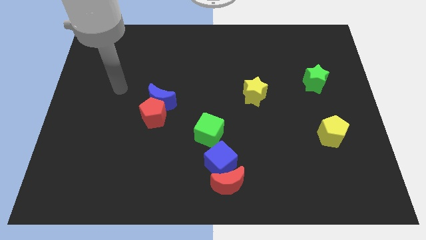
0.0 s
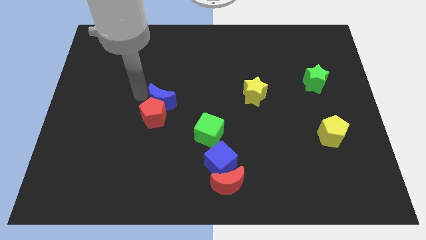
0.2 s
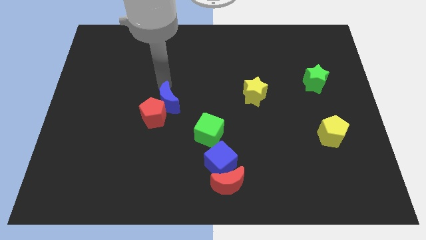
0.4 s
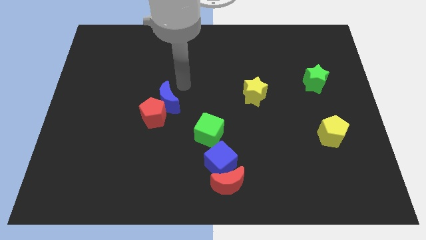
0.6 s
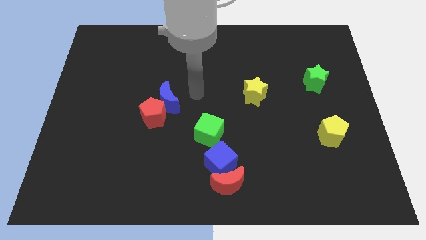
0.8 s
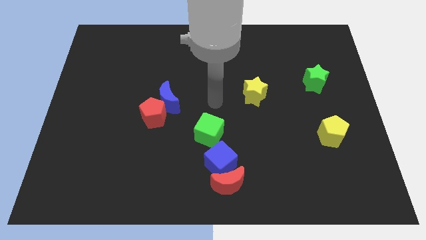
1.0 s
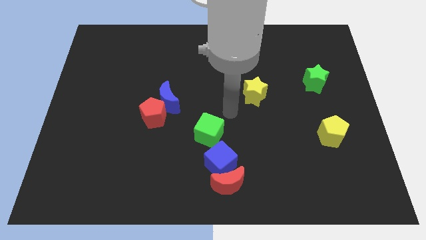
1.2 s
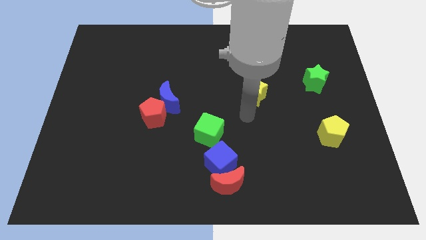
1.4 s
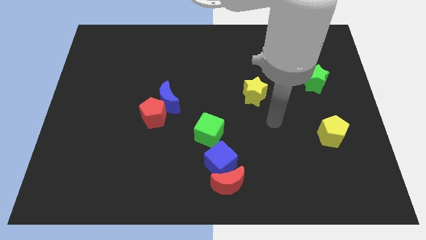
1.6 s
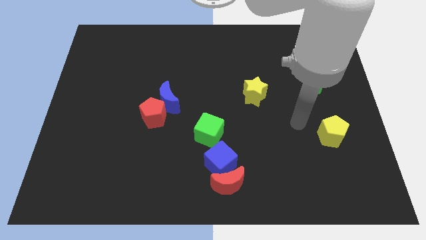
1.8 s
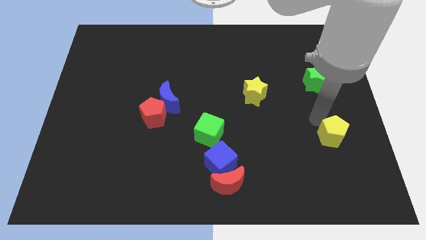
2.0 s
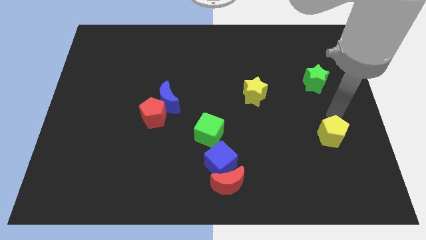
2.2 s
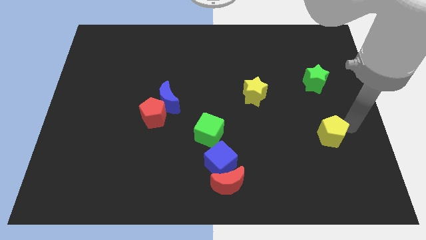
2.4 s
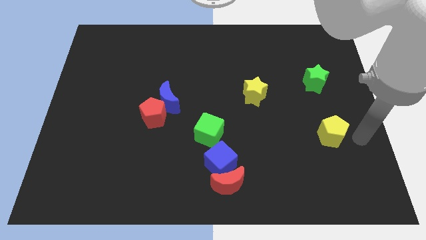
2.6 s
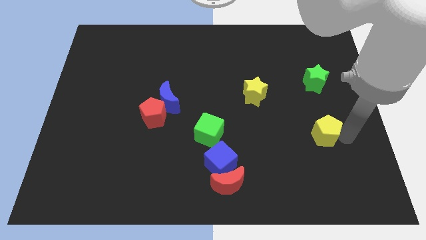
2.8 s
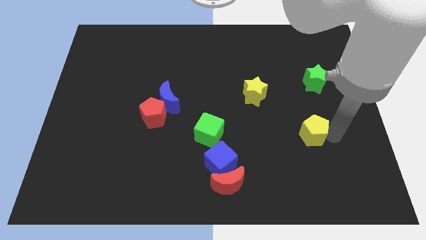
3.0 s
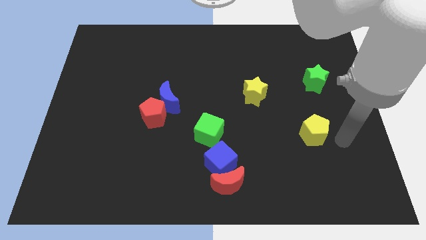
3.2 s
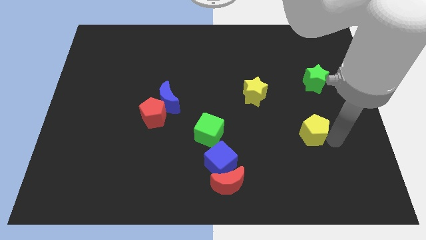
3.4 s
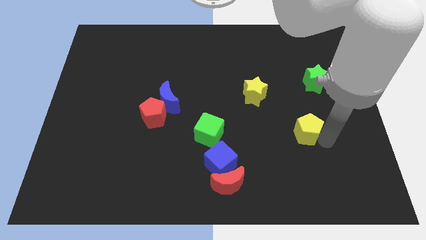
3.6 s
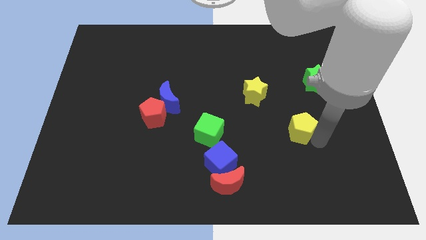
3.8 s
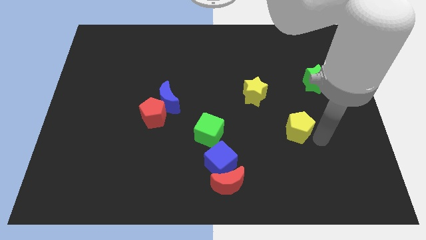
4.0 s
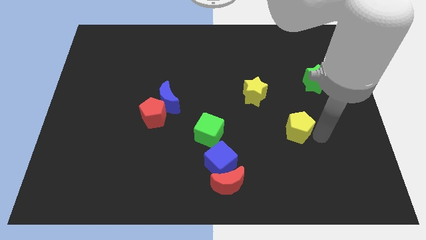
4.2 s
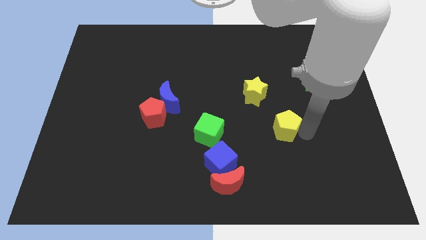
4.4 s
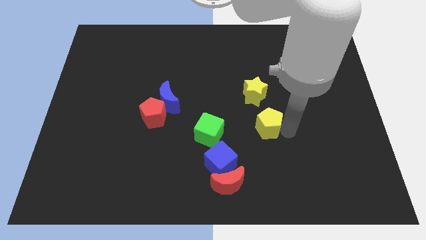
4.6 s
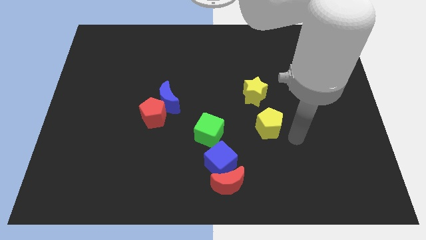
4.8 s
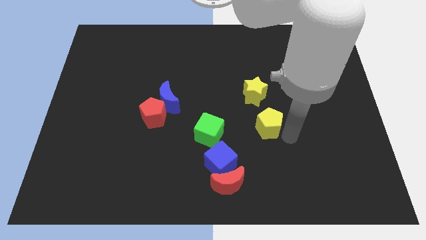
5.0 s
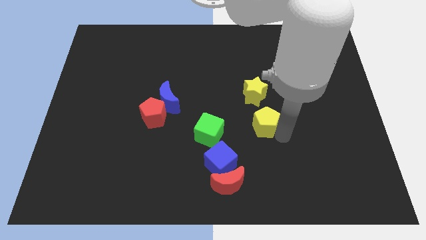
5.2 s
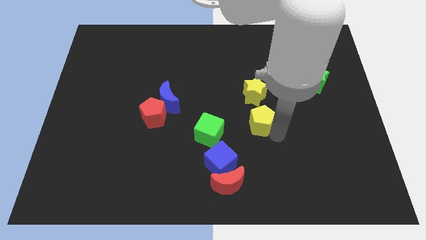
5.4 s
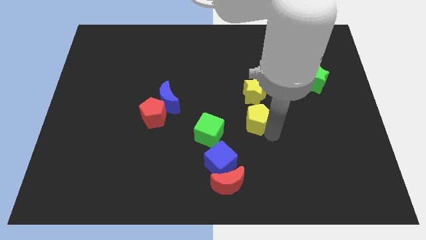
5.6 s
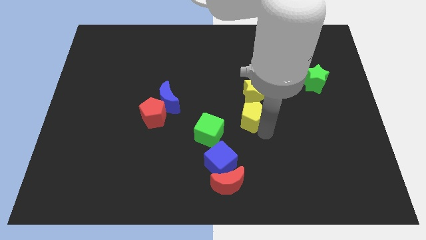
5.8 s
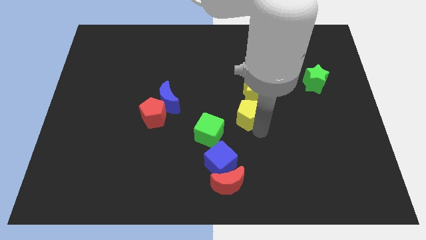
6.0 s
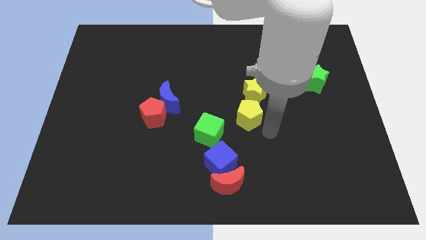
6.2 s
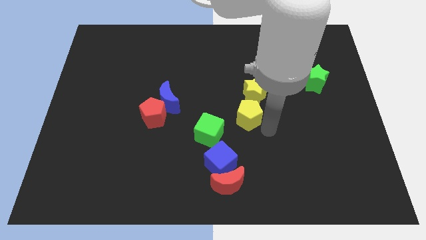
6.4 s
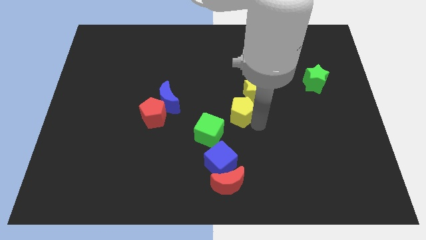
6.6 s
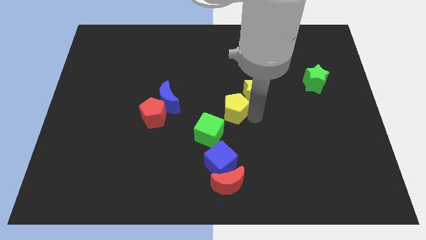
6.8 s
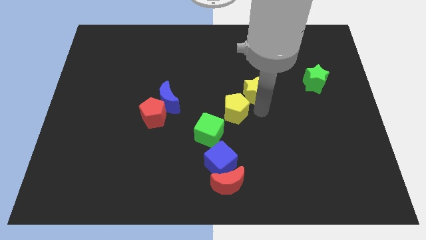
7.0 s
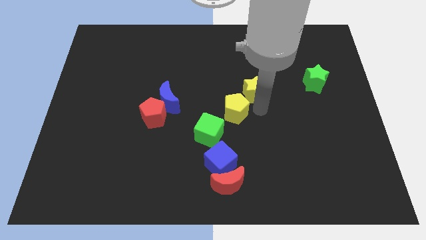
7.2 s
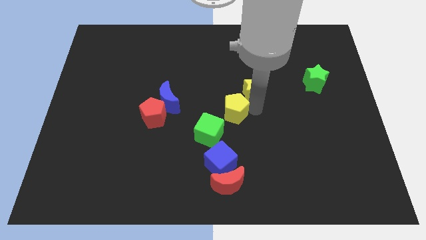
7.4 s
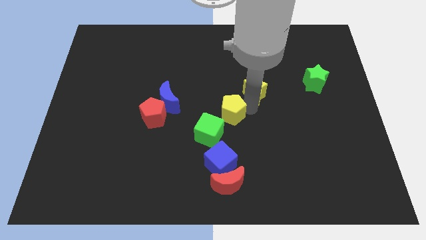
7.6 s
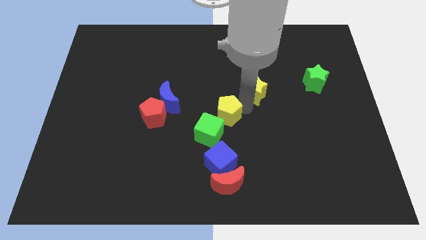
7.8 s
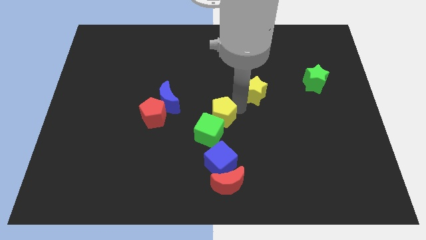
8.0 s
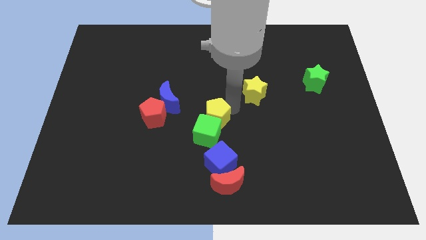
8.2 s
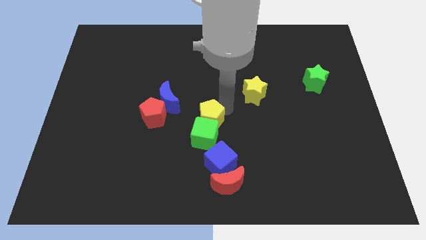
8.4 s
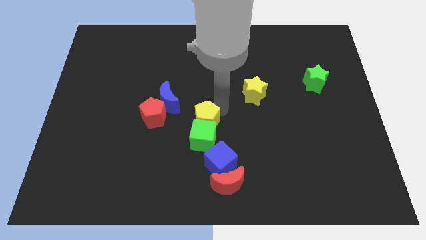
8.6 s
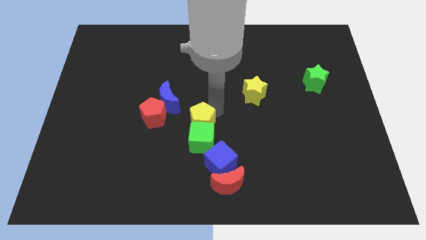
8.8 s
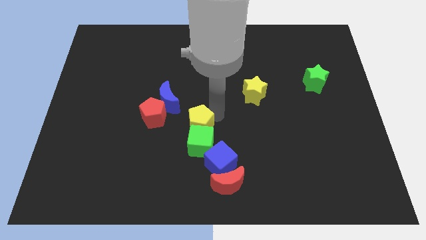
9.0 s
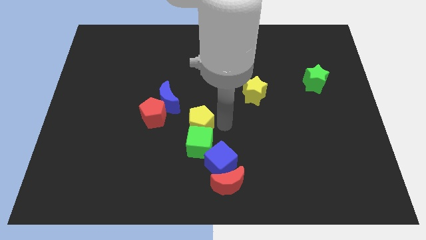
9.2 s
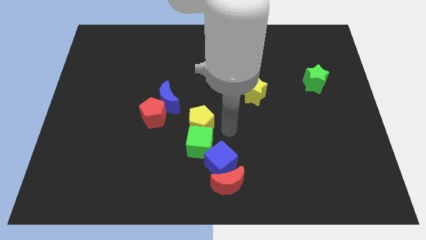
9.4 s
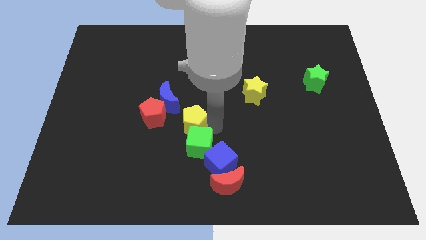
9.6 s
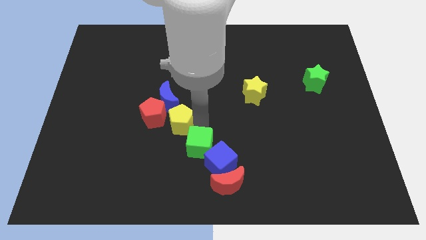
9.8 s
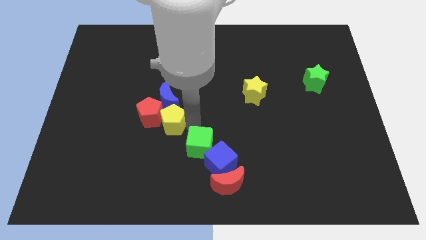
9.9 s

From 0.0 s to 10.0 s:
move the yellow pentagon to the red pentagon

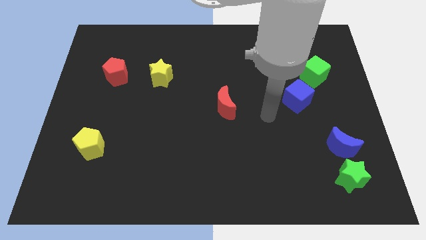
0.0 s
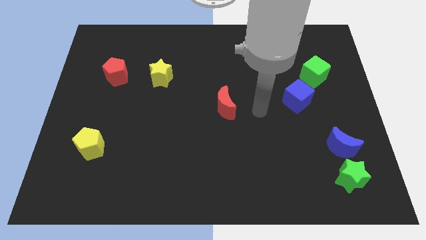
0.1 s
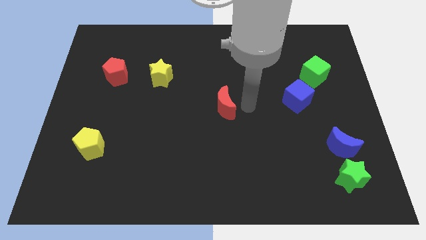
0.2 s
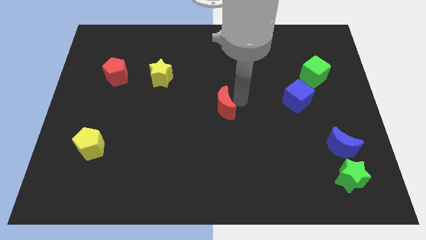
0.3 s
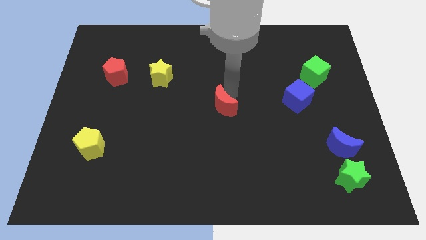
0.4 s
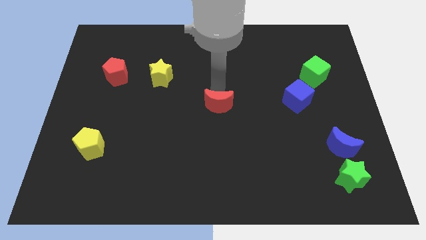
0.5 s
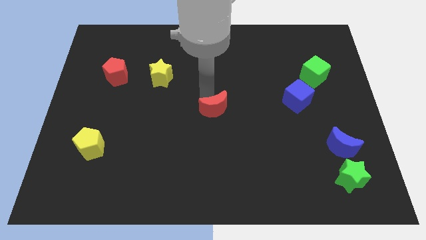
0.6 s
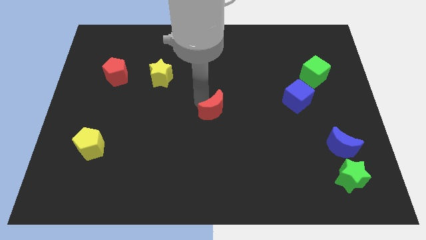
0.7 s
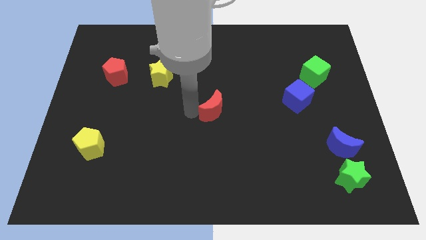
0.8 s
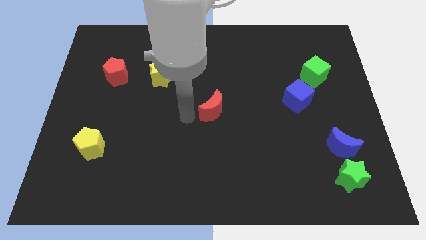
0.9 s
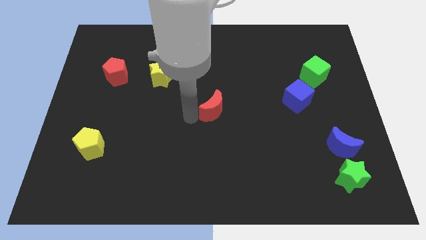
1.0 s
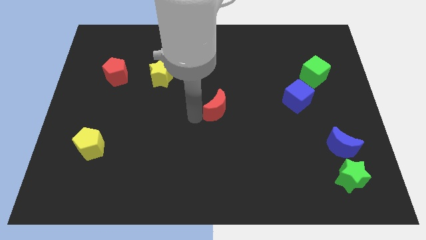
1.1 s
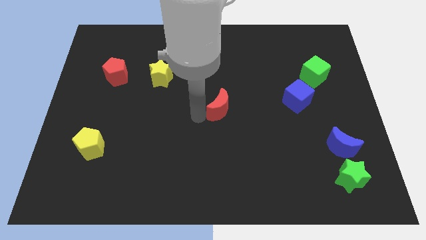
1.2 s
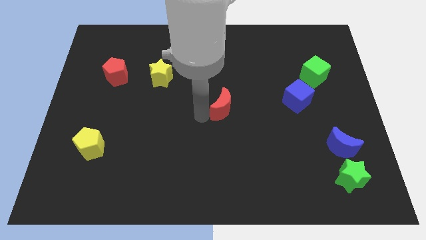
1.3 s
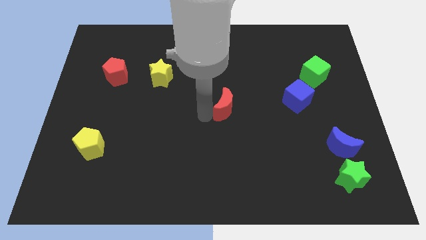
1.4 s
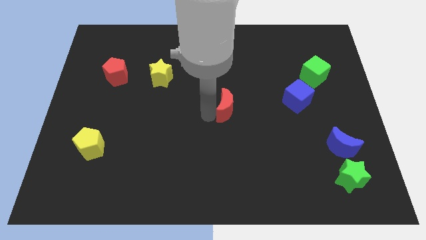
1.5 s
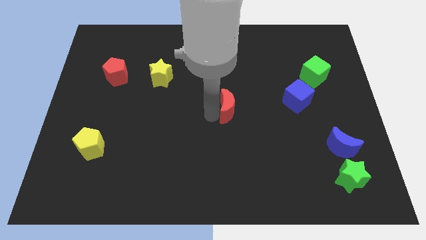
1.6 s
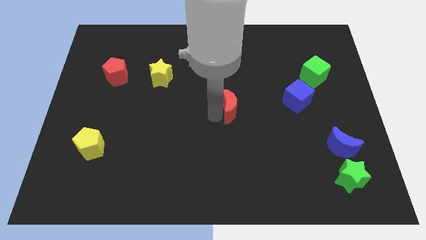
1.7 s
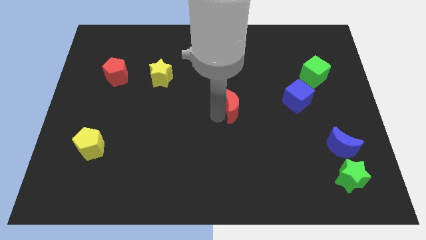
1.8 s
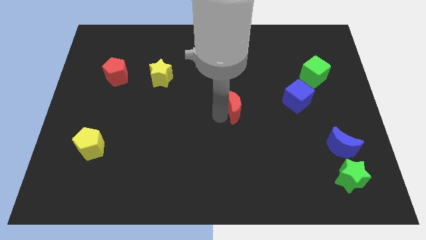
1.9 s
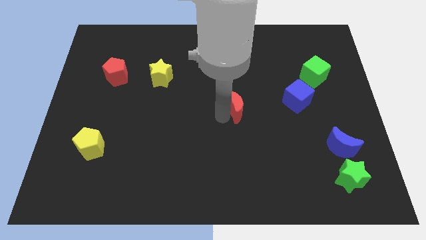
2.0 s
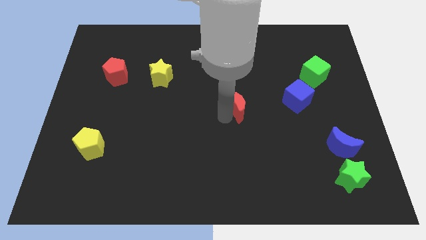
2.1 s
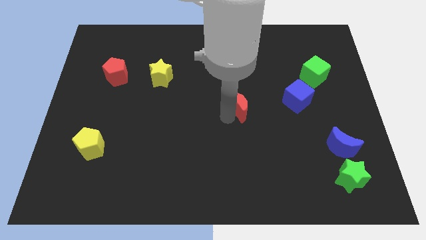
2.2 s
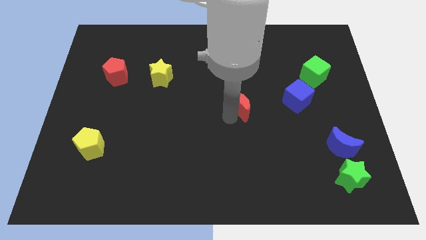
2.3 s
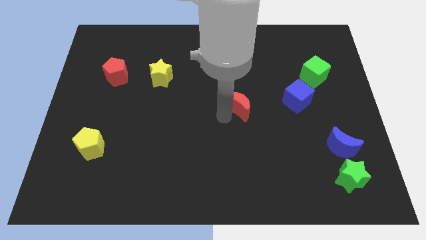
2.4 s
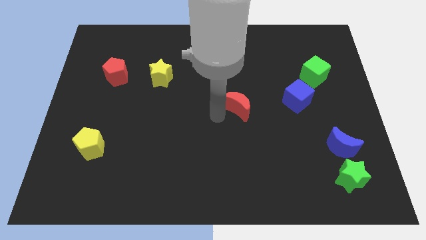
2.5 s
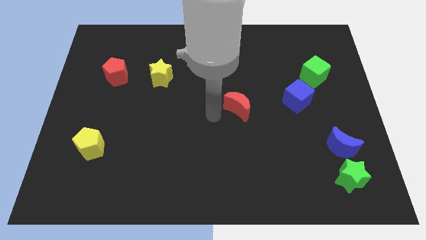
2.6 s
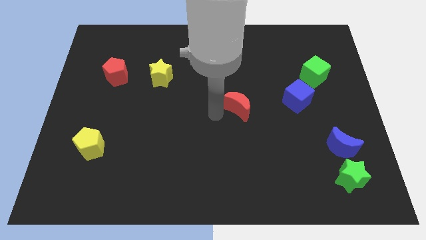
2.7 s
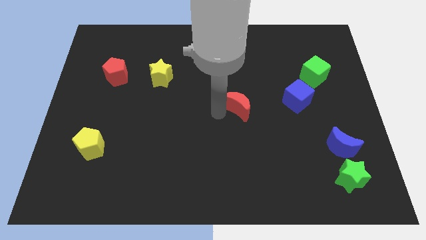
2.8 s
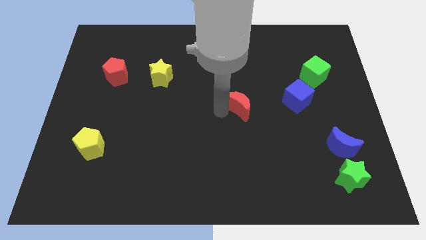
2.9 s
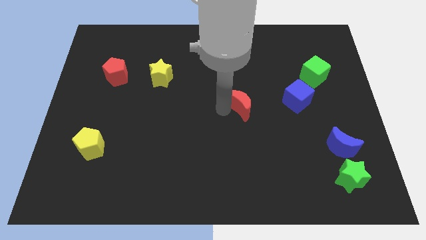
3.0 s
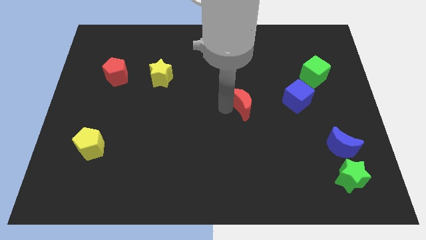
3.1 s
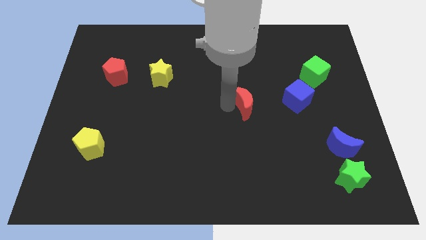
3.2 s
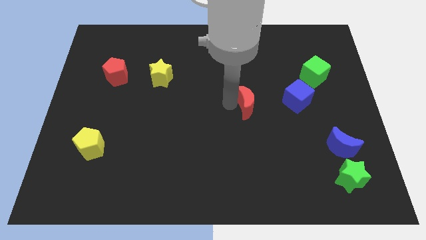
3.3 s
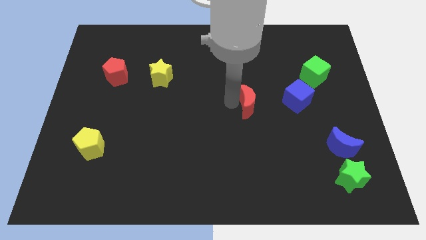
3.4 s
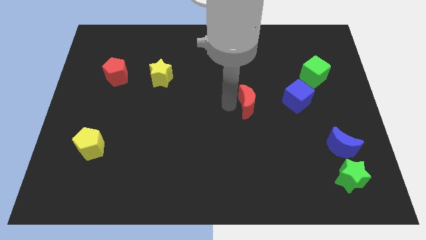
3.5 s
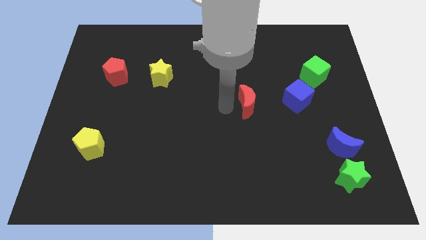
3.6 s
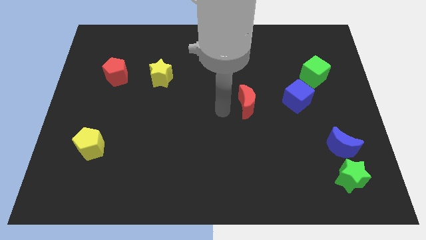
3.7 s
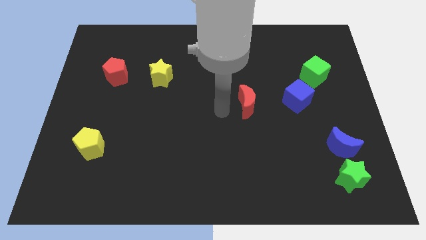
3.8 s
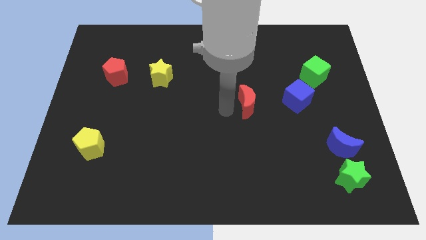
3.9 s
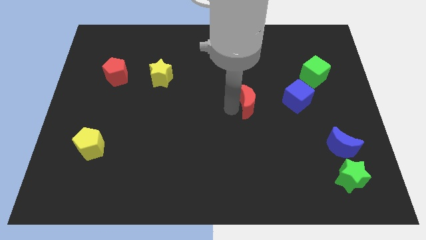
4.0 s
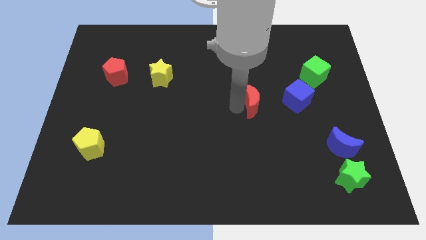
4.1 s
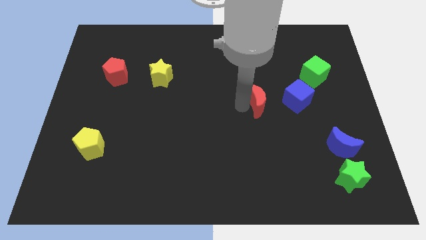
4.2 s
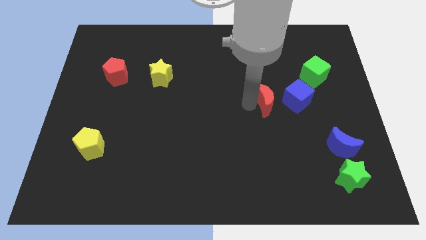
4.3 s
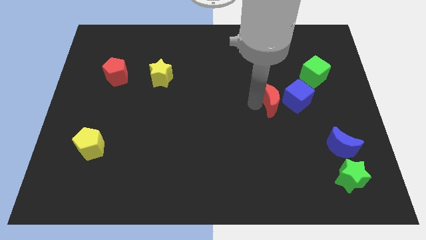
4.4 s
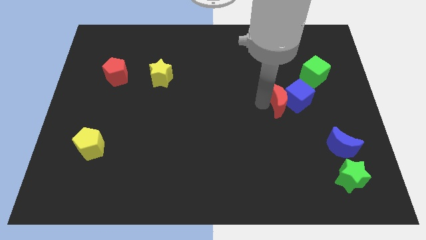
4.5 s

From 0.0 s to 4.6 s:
push the red moon next to the blue cube
